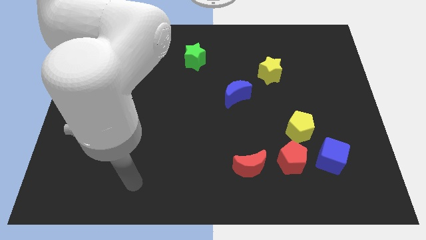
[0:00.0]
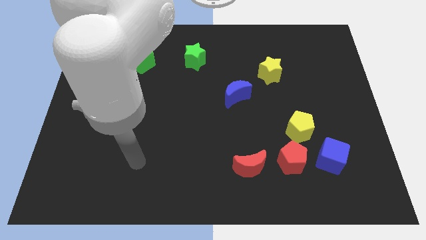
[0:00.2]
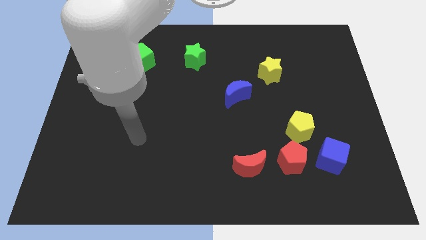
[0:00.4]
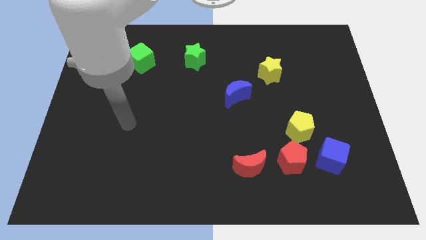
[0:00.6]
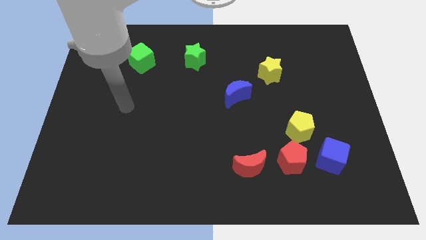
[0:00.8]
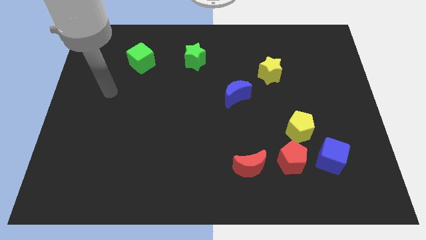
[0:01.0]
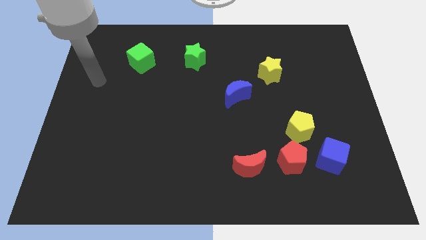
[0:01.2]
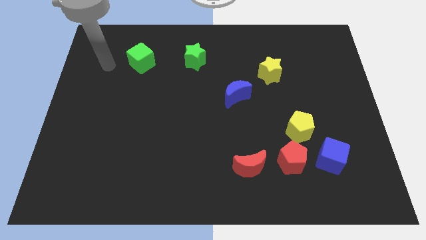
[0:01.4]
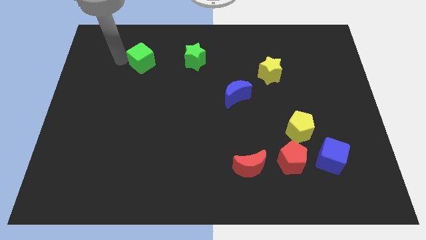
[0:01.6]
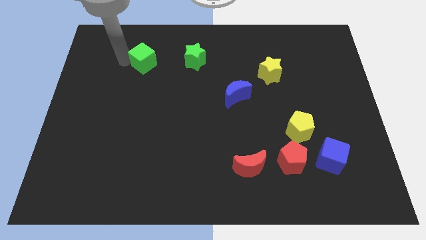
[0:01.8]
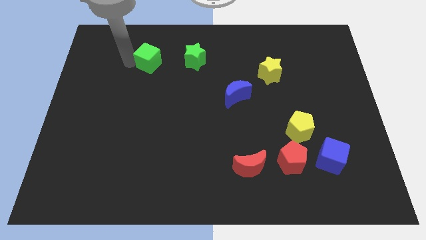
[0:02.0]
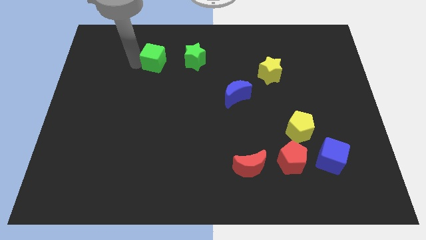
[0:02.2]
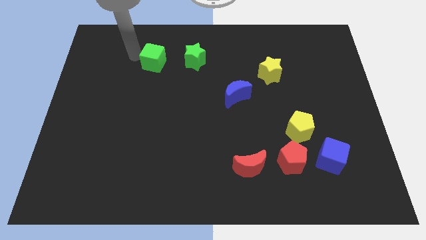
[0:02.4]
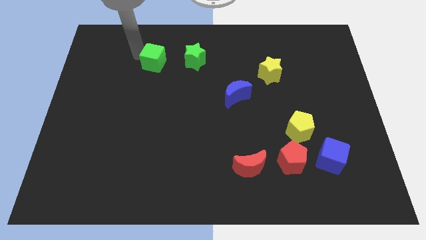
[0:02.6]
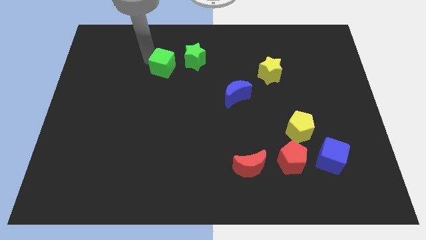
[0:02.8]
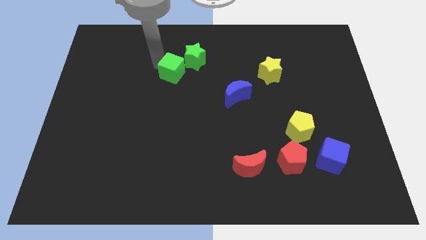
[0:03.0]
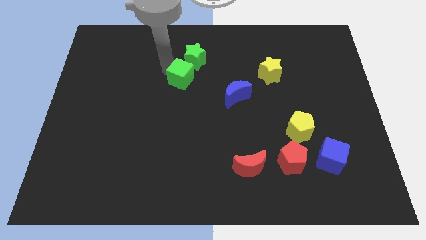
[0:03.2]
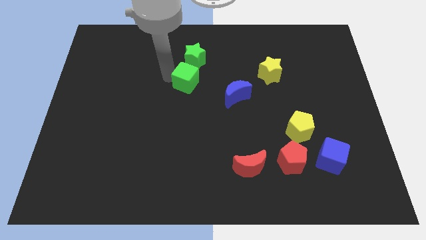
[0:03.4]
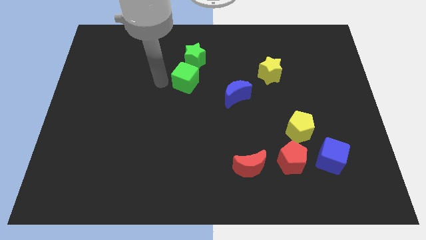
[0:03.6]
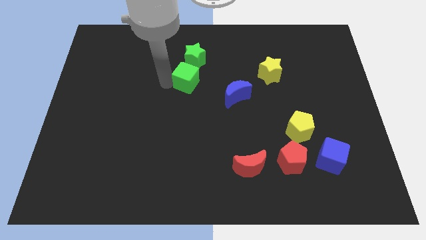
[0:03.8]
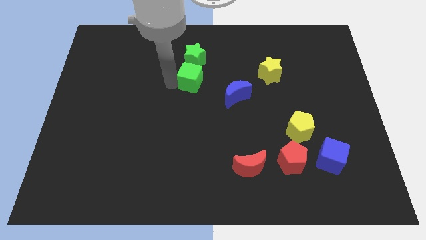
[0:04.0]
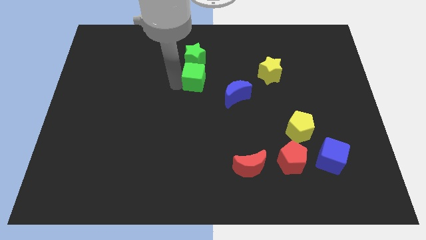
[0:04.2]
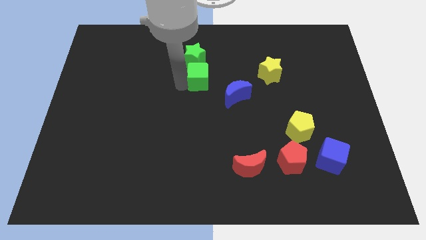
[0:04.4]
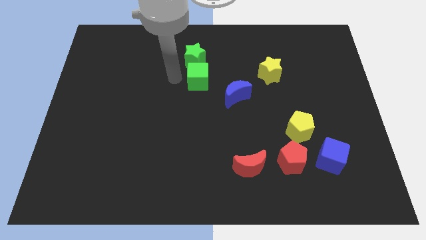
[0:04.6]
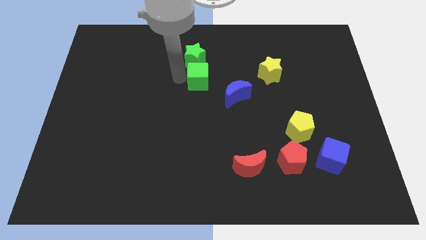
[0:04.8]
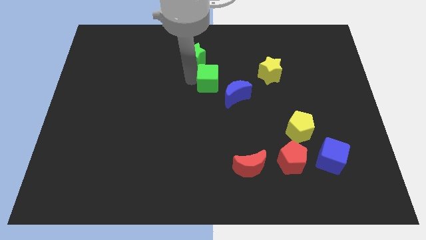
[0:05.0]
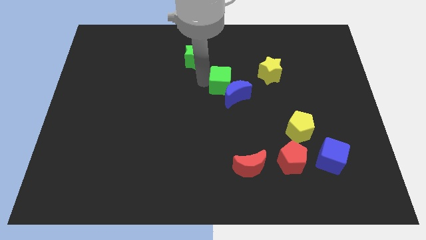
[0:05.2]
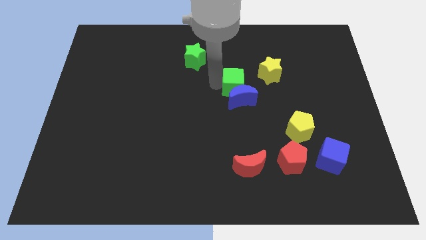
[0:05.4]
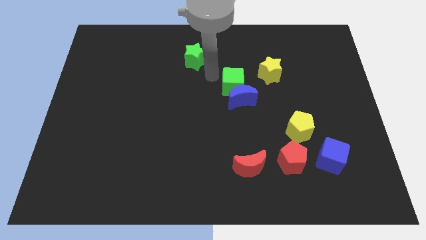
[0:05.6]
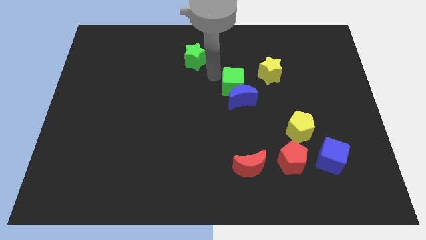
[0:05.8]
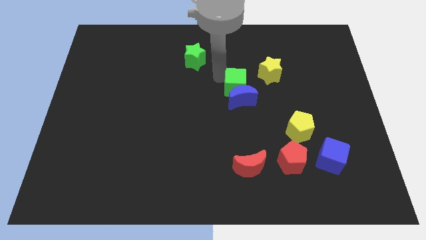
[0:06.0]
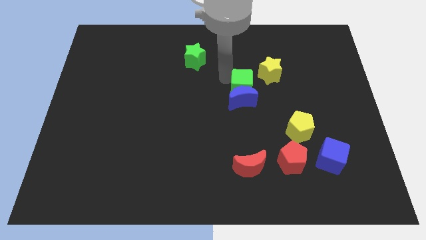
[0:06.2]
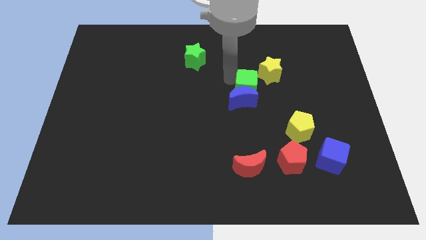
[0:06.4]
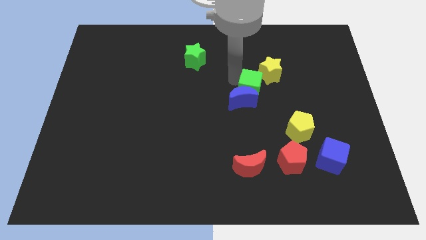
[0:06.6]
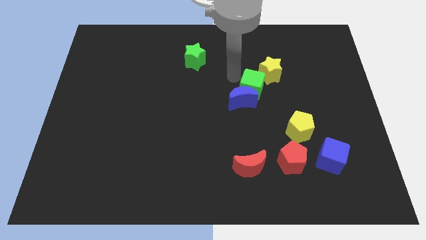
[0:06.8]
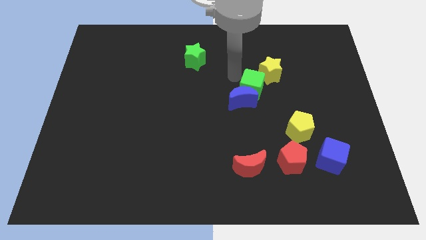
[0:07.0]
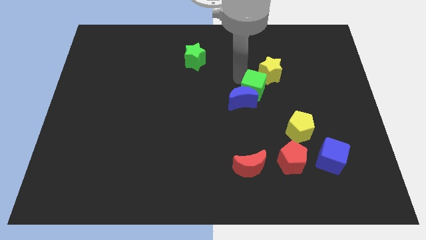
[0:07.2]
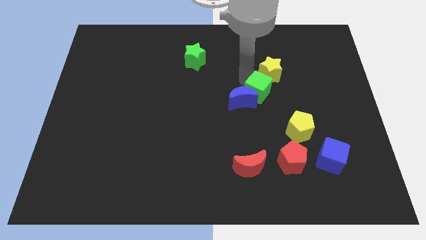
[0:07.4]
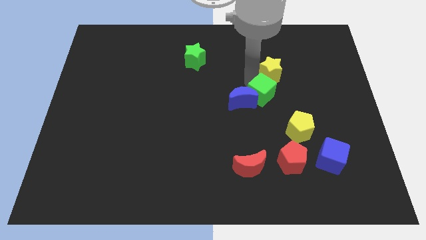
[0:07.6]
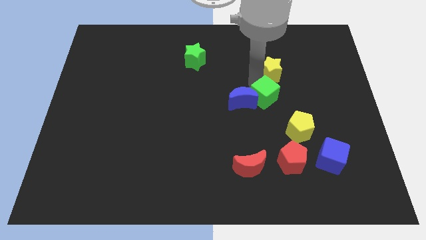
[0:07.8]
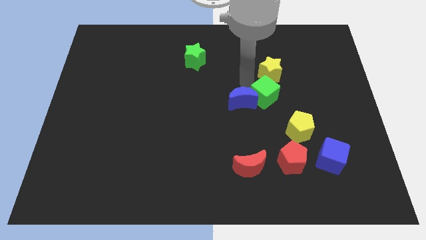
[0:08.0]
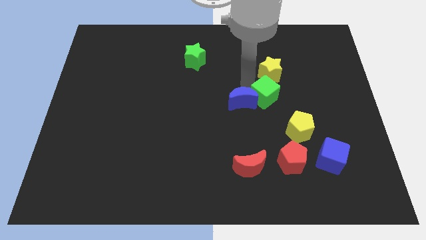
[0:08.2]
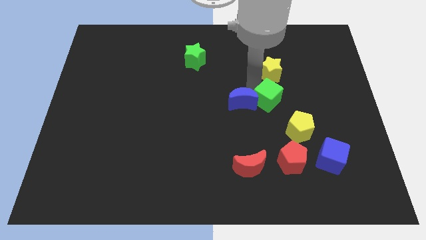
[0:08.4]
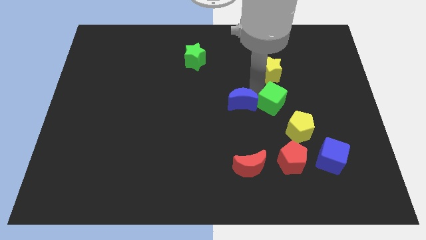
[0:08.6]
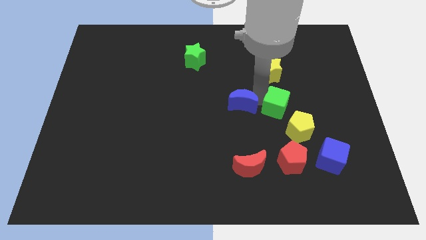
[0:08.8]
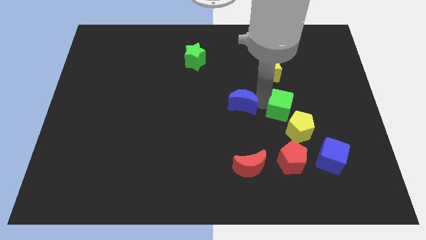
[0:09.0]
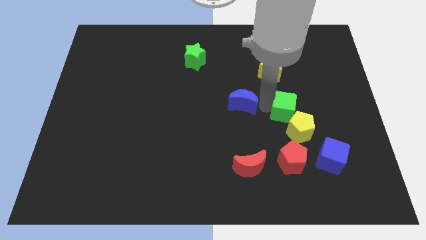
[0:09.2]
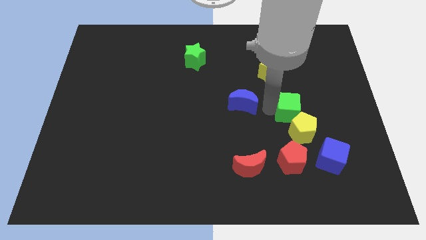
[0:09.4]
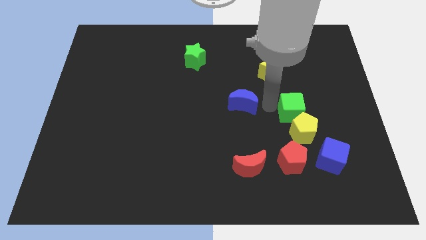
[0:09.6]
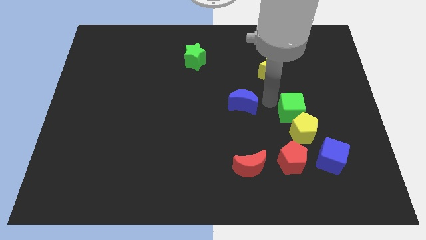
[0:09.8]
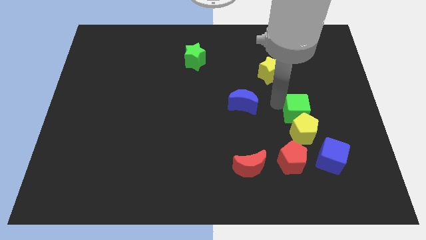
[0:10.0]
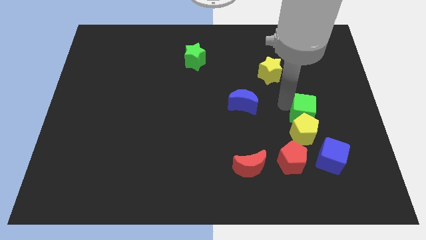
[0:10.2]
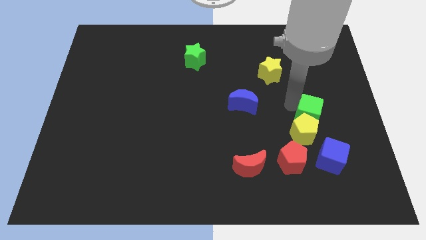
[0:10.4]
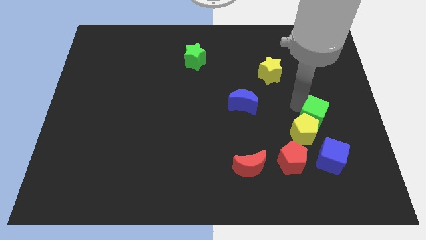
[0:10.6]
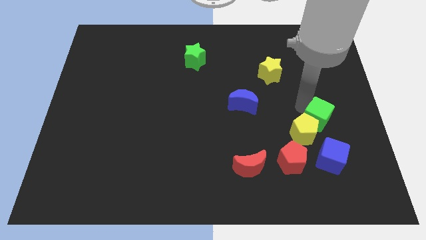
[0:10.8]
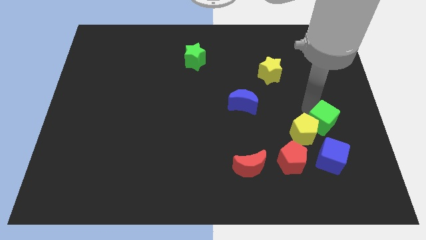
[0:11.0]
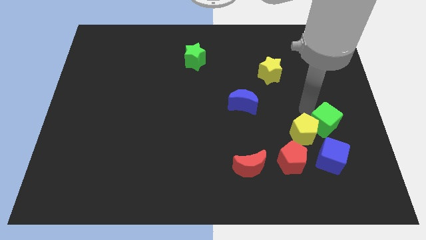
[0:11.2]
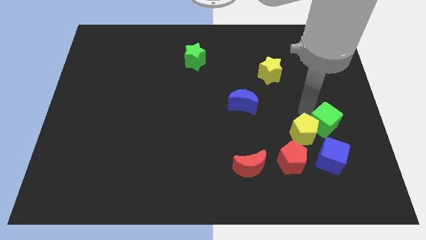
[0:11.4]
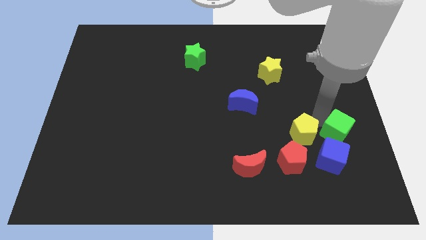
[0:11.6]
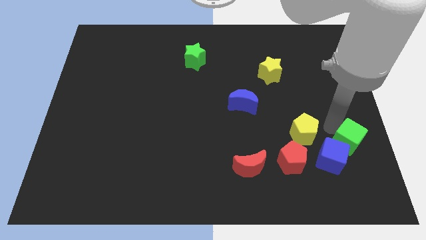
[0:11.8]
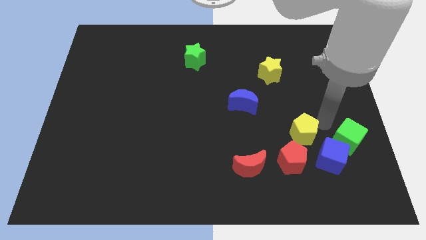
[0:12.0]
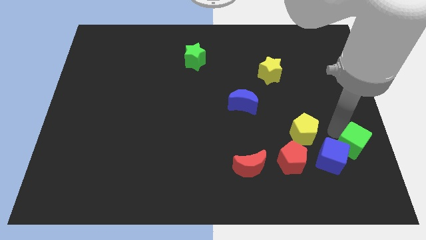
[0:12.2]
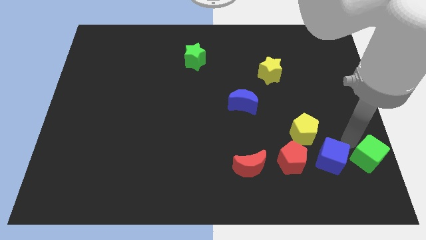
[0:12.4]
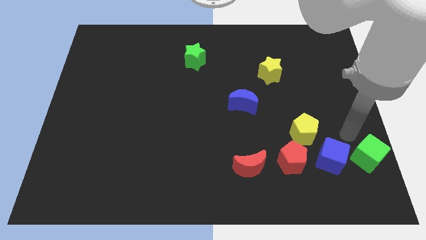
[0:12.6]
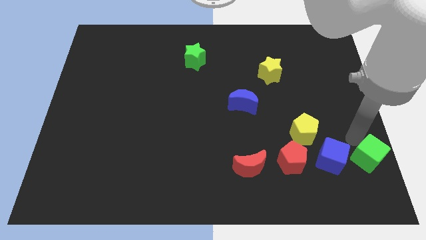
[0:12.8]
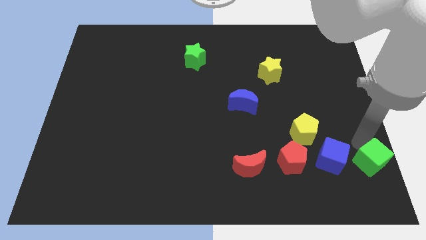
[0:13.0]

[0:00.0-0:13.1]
put the green cube to the bottom right of the board

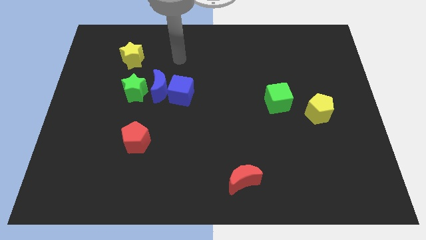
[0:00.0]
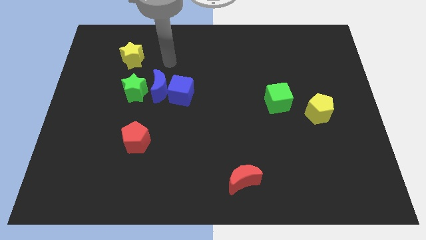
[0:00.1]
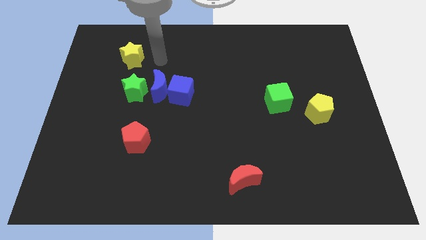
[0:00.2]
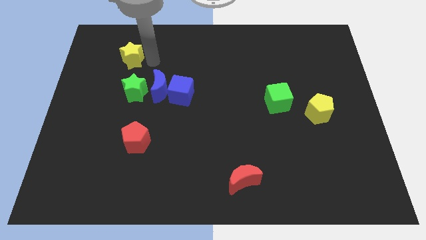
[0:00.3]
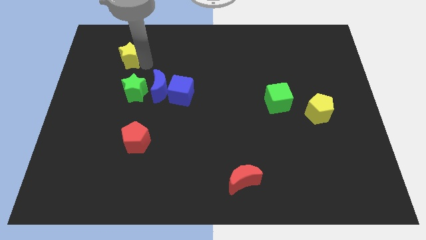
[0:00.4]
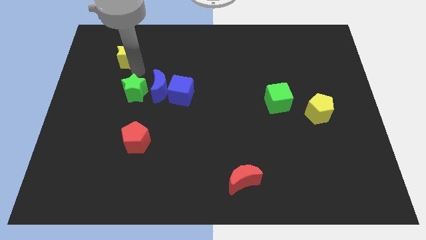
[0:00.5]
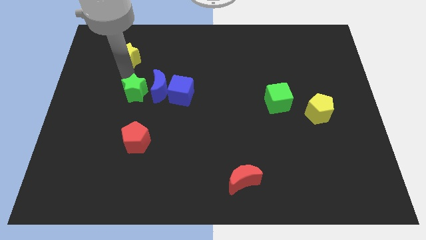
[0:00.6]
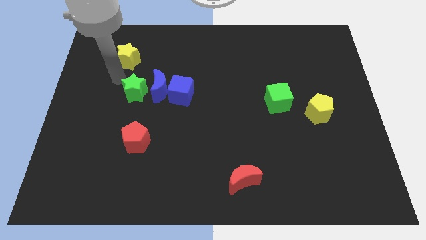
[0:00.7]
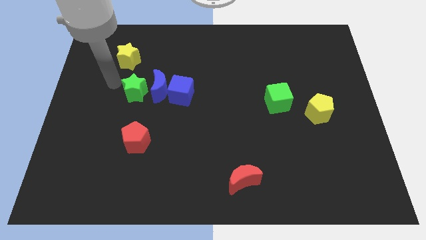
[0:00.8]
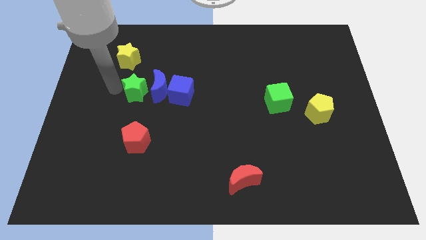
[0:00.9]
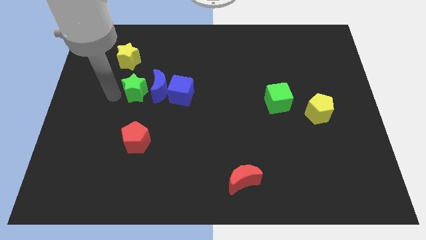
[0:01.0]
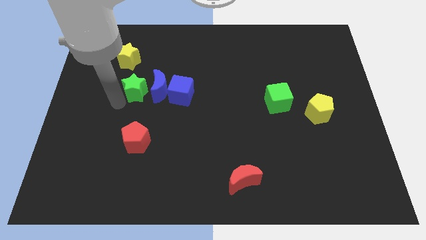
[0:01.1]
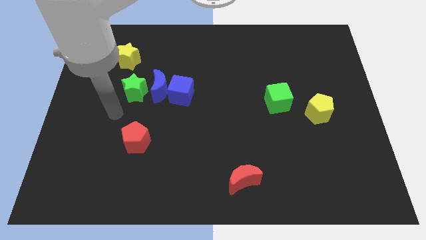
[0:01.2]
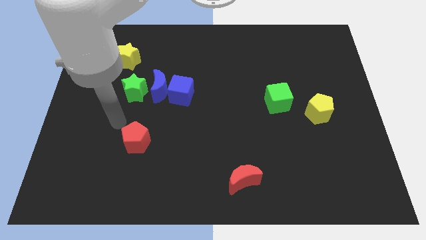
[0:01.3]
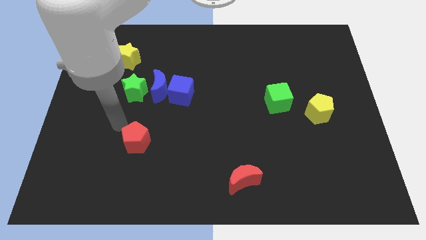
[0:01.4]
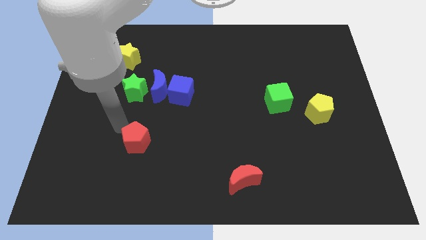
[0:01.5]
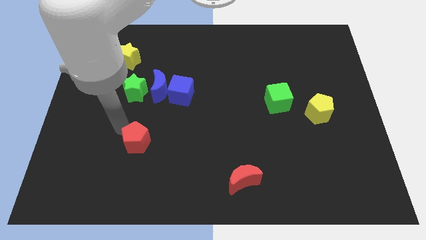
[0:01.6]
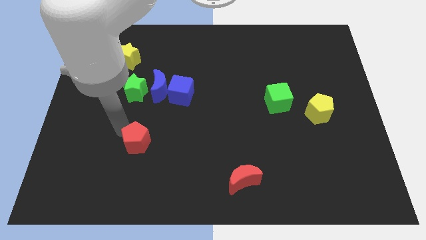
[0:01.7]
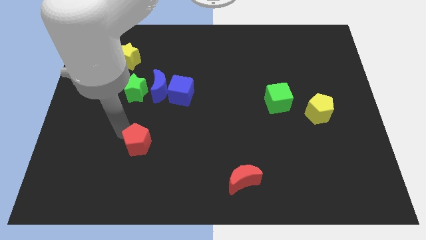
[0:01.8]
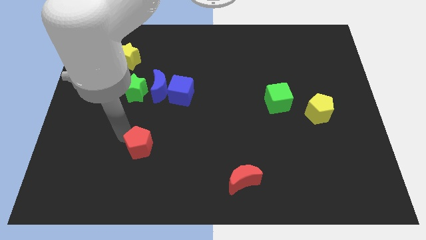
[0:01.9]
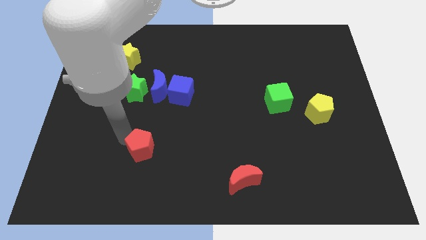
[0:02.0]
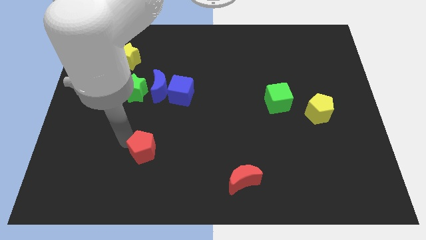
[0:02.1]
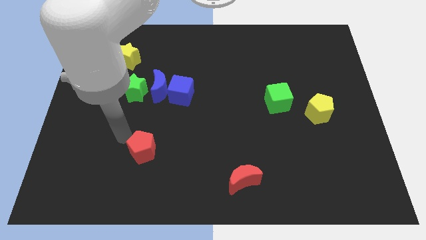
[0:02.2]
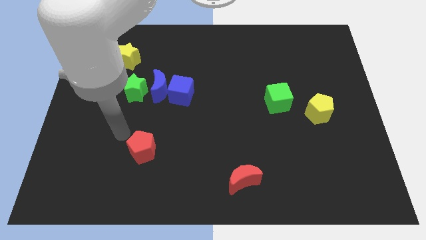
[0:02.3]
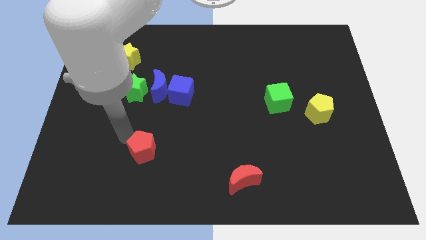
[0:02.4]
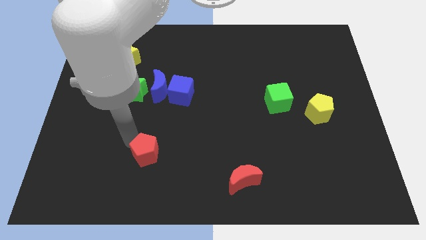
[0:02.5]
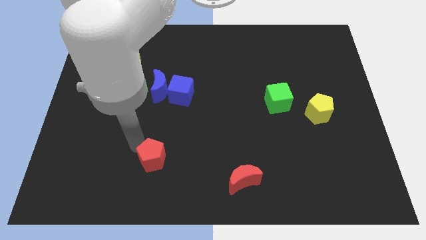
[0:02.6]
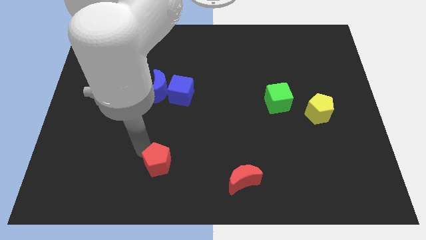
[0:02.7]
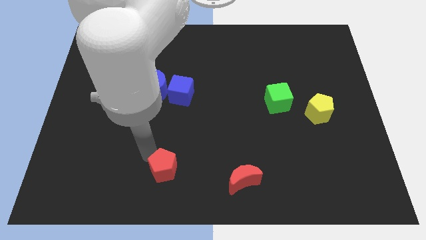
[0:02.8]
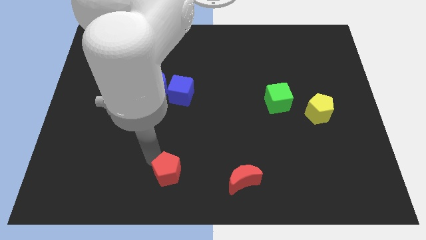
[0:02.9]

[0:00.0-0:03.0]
move the red pentagon to the bottom side
